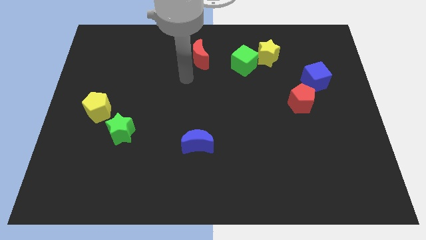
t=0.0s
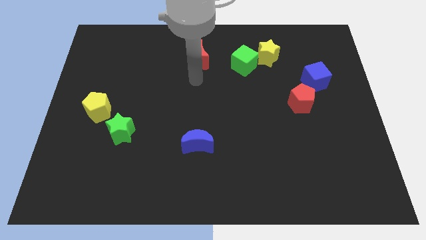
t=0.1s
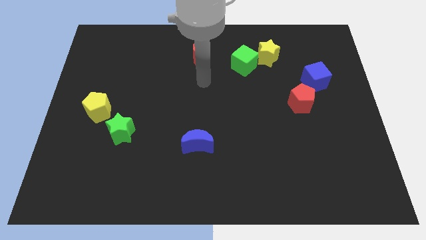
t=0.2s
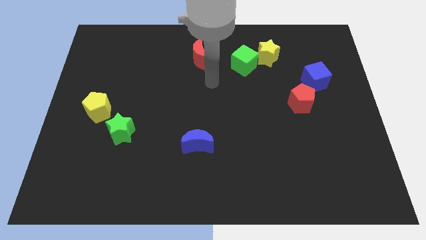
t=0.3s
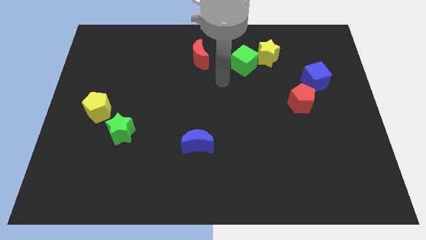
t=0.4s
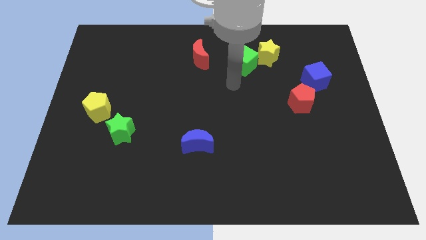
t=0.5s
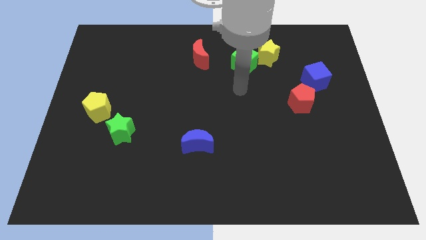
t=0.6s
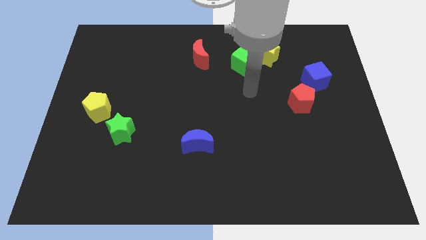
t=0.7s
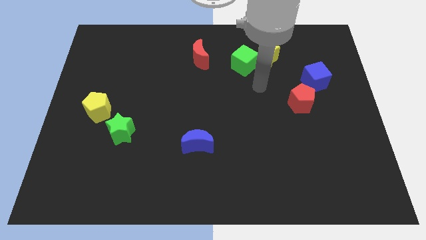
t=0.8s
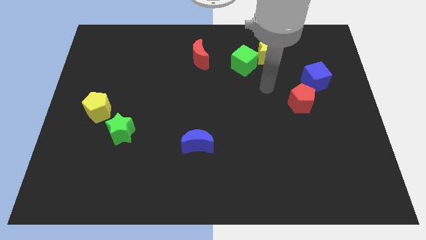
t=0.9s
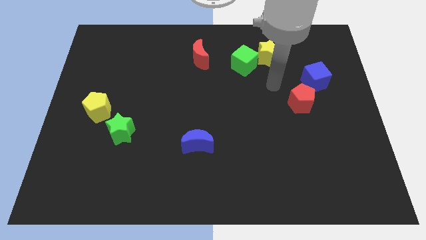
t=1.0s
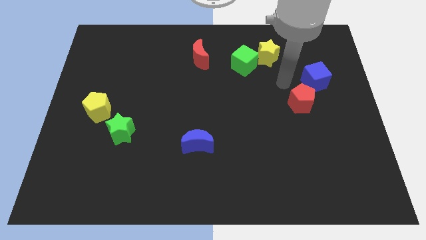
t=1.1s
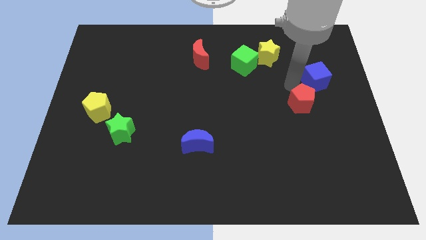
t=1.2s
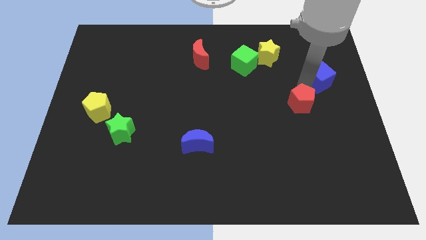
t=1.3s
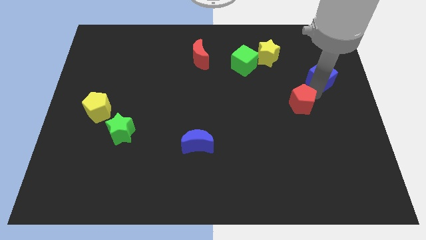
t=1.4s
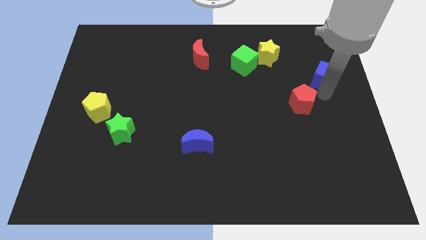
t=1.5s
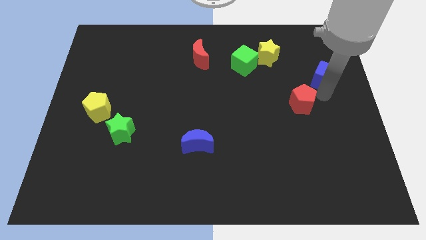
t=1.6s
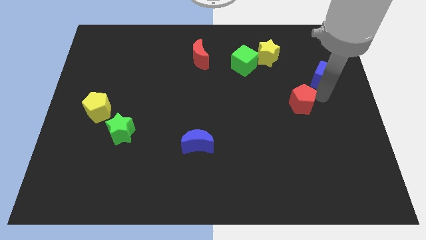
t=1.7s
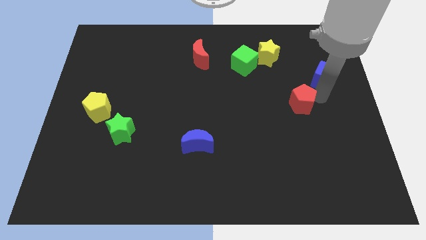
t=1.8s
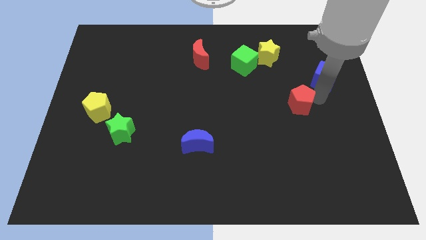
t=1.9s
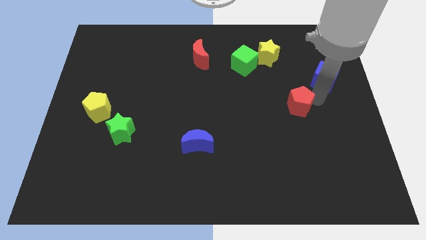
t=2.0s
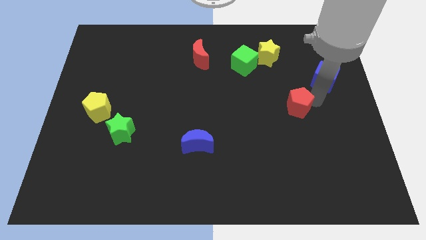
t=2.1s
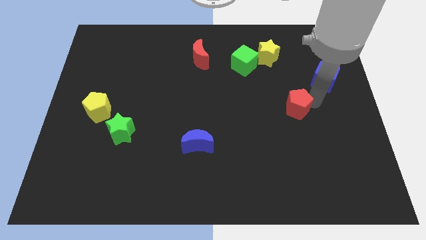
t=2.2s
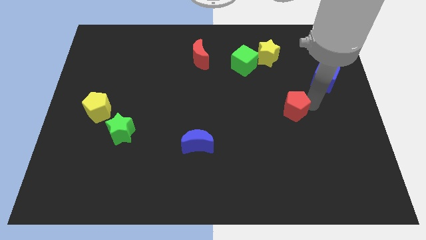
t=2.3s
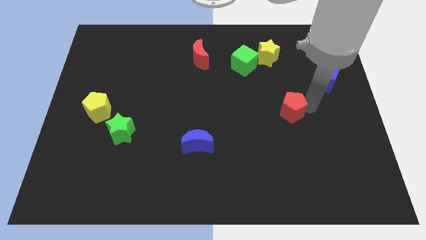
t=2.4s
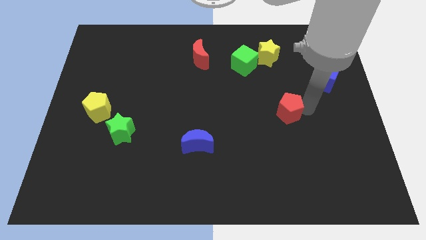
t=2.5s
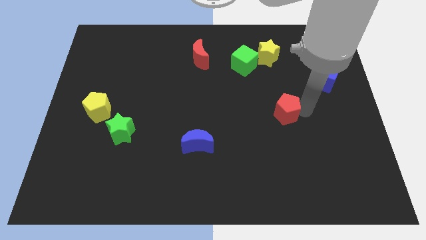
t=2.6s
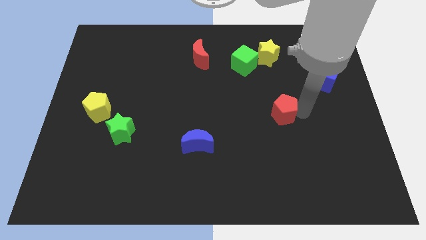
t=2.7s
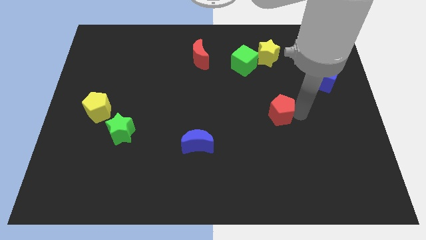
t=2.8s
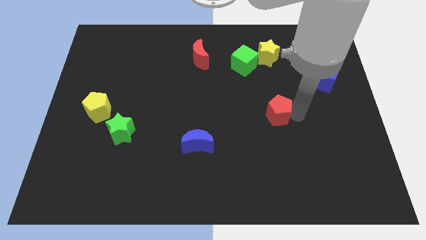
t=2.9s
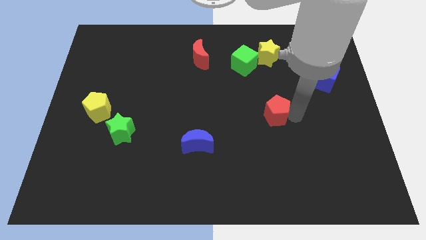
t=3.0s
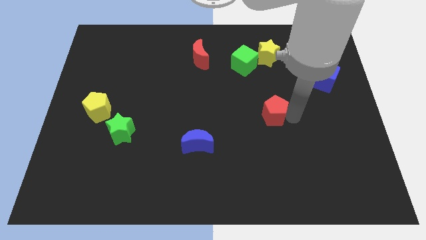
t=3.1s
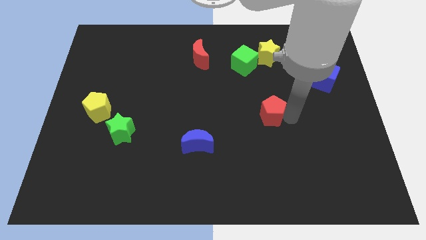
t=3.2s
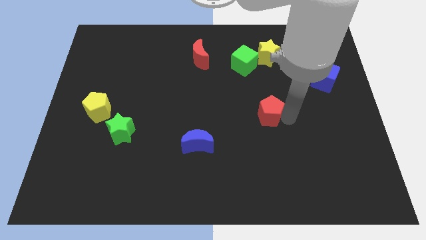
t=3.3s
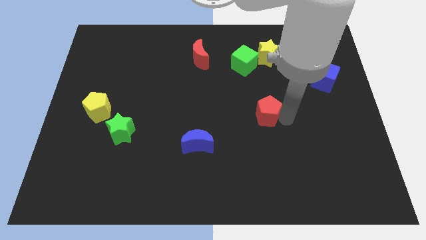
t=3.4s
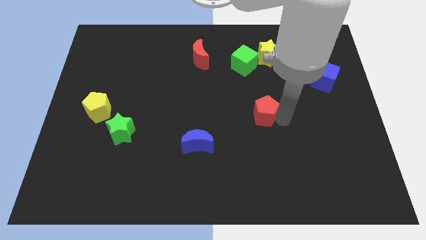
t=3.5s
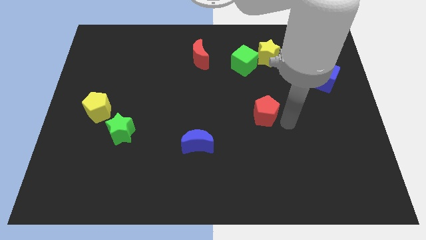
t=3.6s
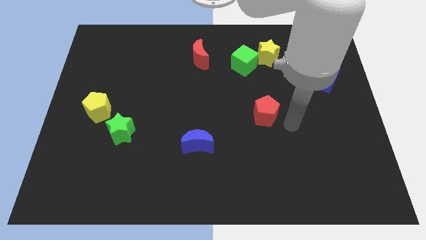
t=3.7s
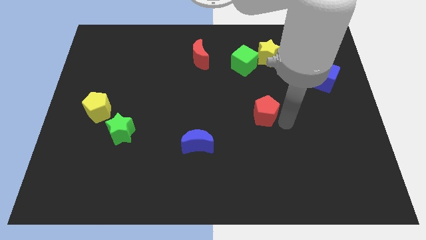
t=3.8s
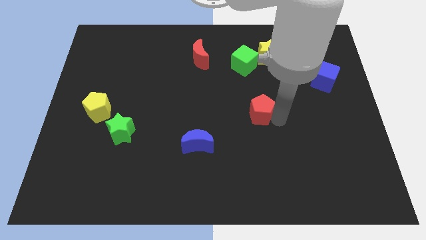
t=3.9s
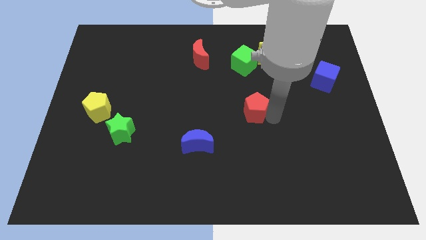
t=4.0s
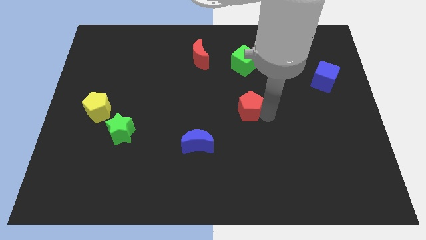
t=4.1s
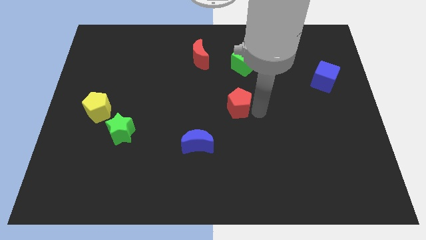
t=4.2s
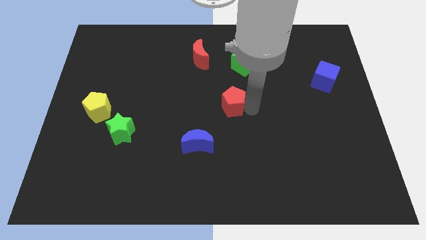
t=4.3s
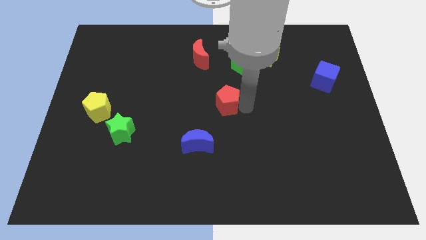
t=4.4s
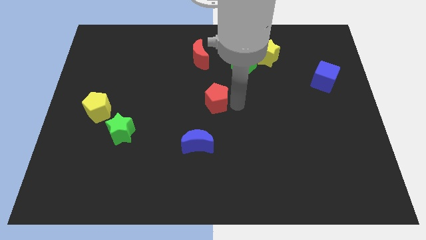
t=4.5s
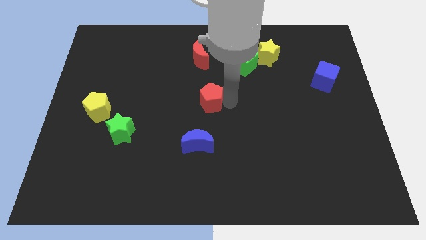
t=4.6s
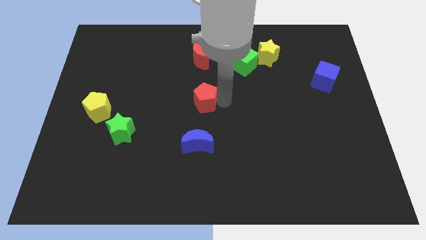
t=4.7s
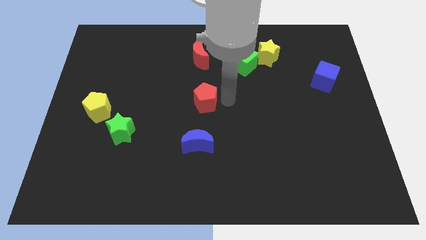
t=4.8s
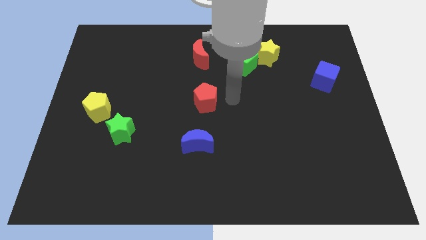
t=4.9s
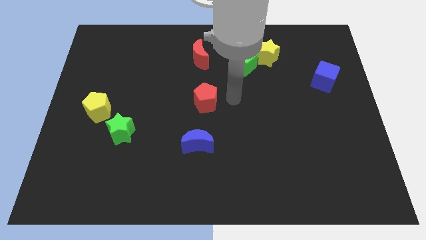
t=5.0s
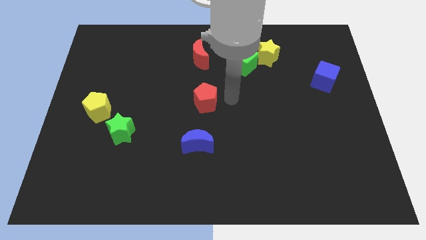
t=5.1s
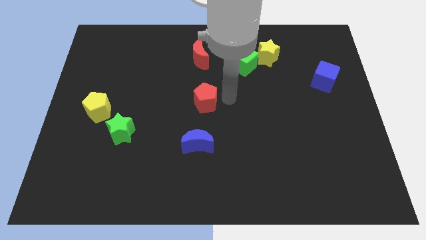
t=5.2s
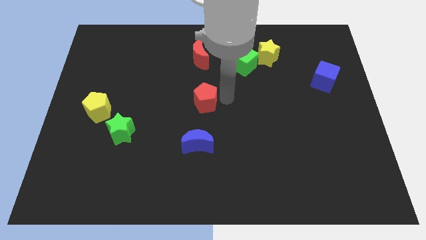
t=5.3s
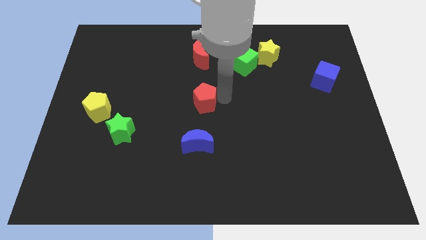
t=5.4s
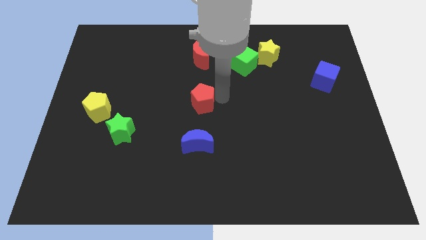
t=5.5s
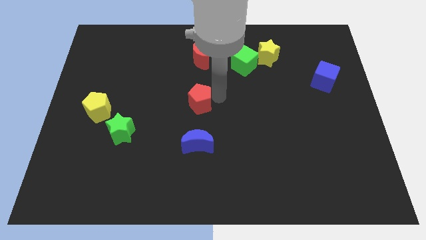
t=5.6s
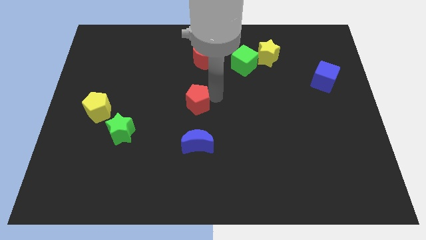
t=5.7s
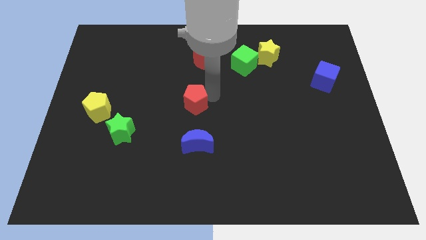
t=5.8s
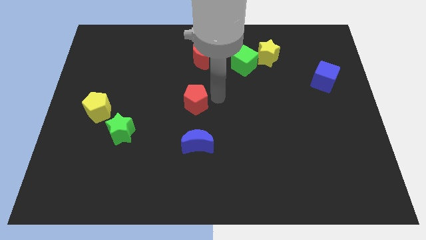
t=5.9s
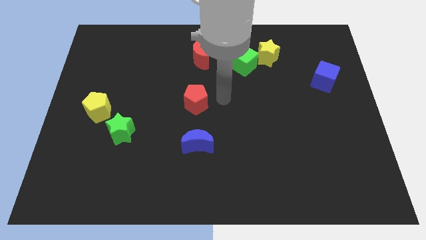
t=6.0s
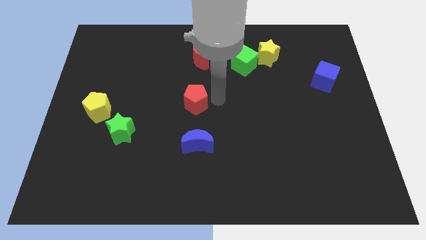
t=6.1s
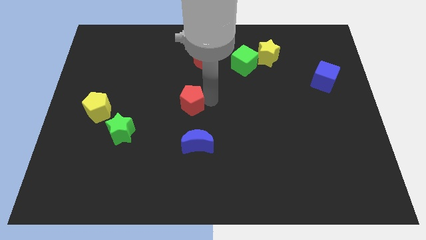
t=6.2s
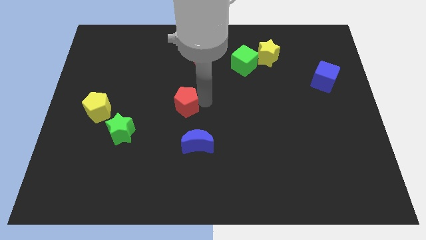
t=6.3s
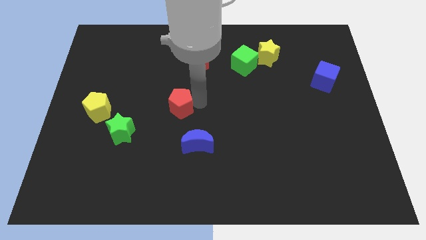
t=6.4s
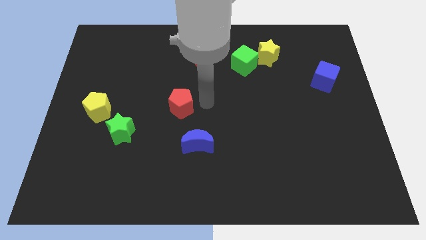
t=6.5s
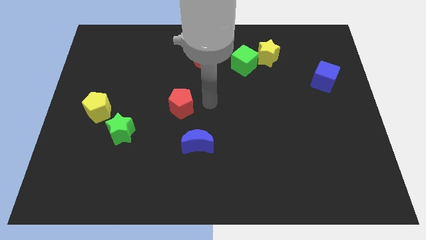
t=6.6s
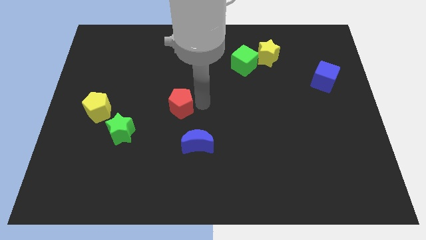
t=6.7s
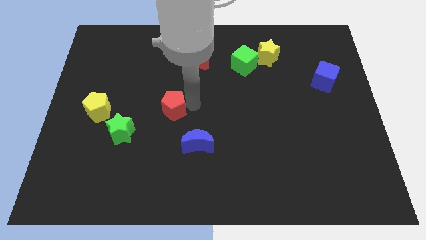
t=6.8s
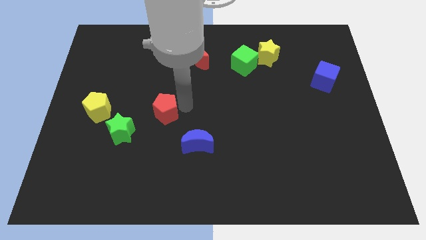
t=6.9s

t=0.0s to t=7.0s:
move the red pentagon to the right of the yellow pentagon

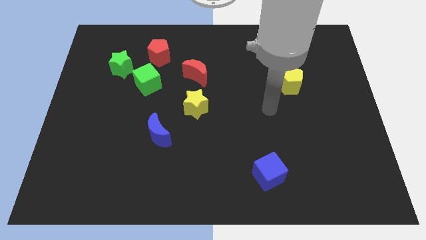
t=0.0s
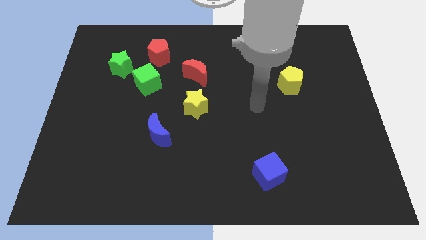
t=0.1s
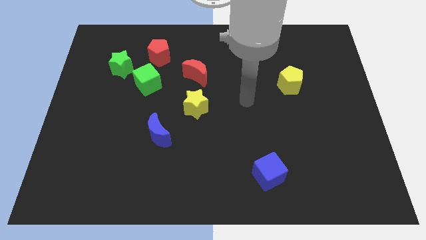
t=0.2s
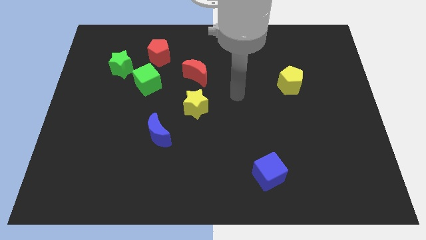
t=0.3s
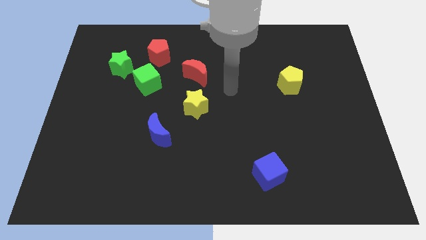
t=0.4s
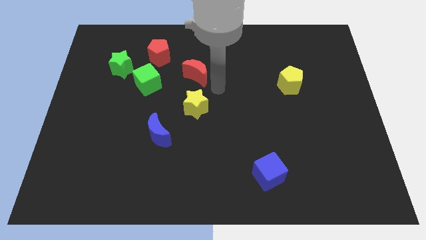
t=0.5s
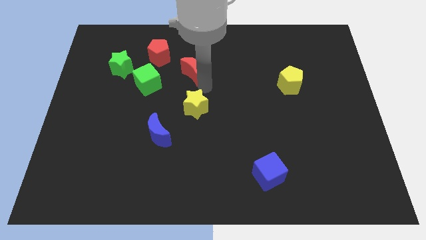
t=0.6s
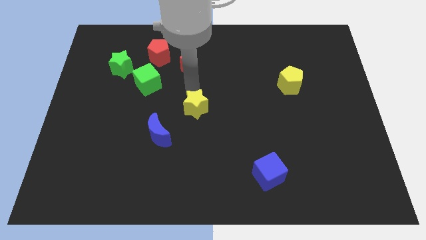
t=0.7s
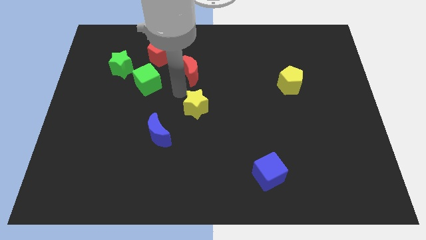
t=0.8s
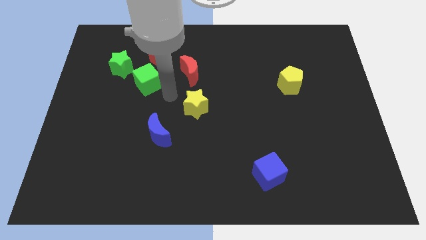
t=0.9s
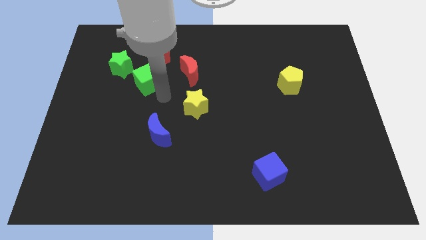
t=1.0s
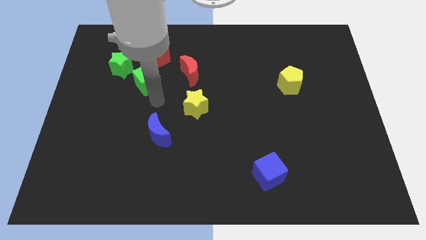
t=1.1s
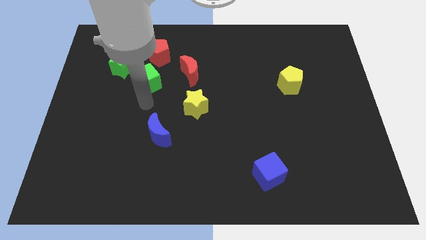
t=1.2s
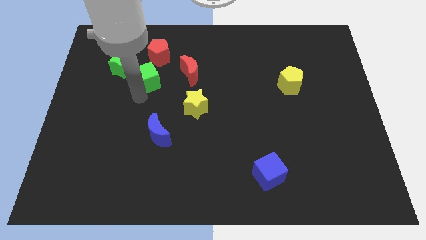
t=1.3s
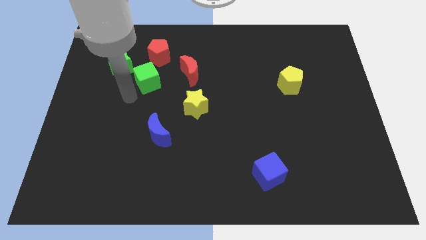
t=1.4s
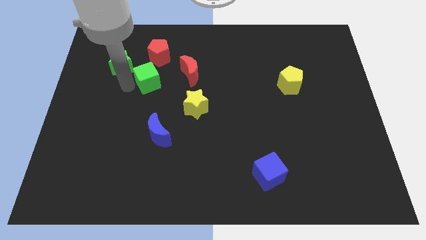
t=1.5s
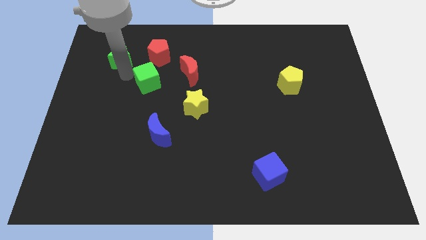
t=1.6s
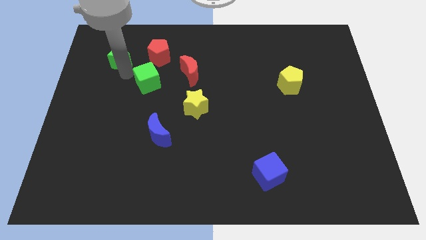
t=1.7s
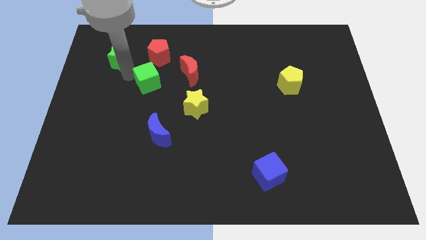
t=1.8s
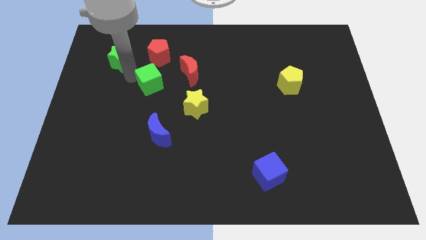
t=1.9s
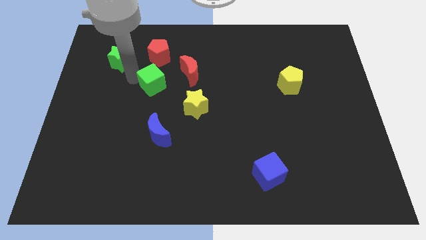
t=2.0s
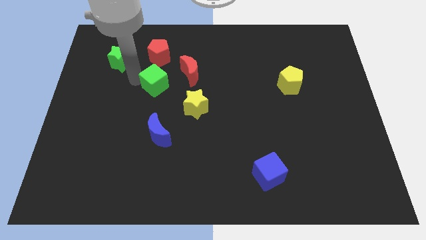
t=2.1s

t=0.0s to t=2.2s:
move the green cube to the top left side of the yellow star
